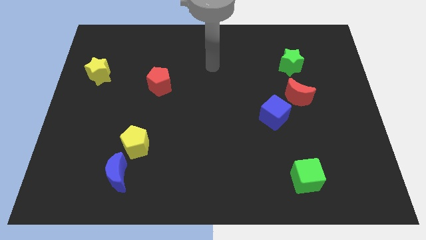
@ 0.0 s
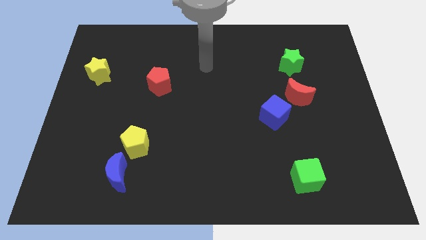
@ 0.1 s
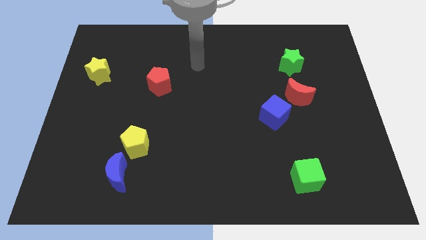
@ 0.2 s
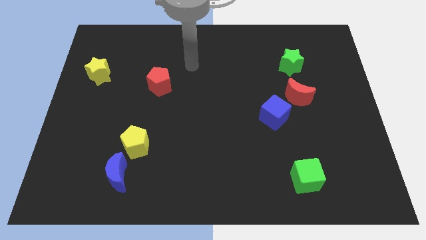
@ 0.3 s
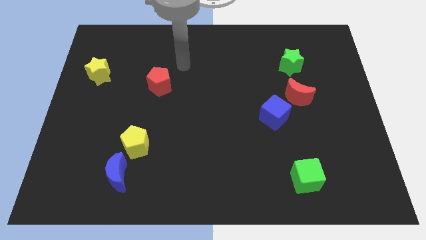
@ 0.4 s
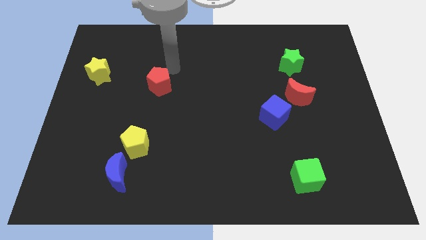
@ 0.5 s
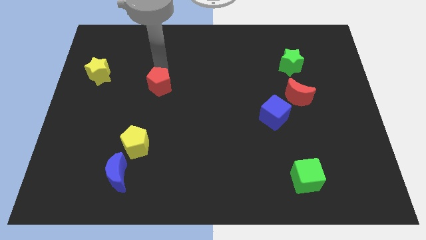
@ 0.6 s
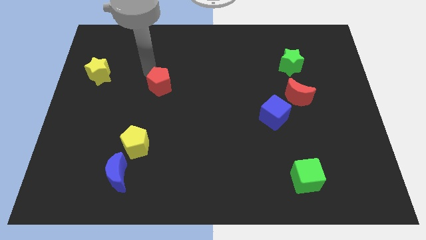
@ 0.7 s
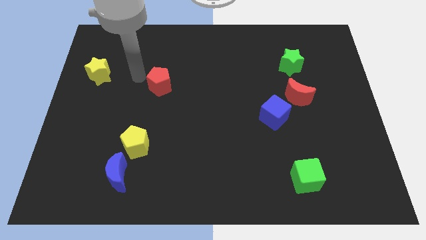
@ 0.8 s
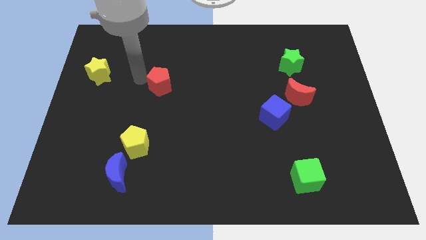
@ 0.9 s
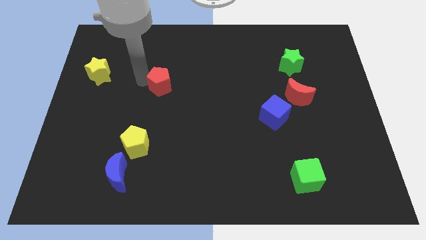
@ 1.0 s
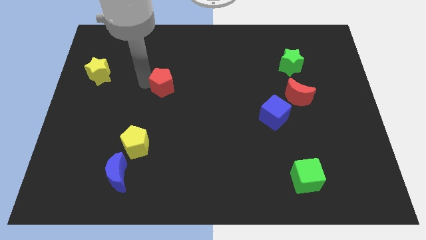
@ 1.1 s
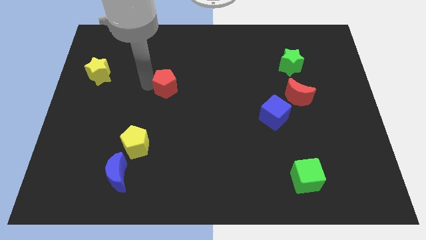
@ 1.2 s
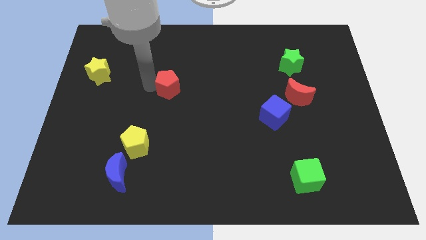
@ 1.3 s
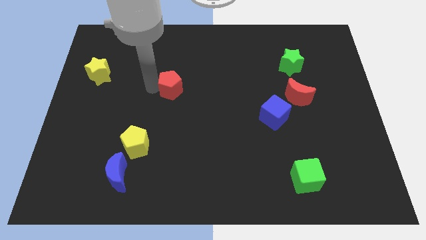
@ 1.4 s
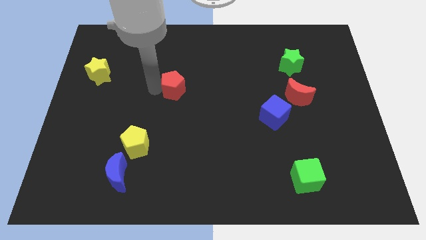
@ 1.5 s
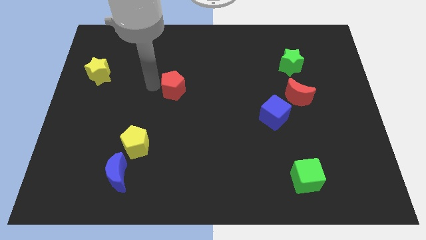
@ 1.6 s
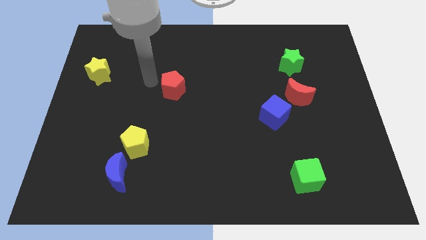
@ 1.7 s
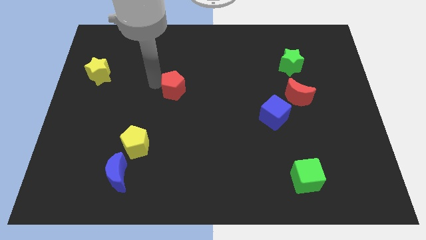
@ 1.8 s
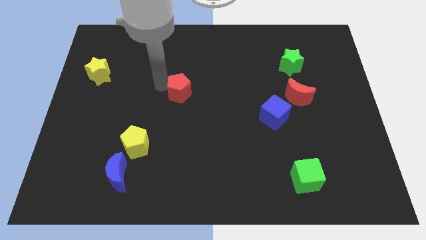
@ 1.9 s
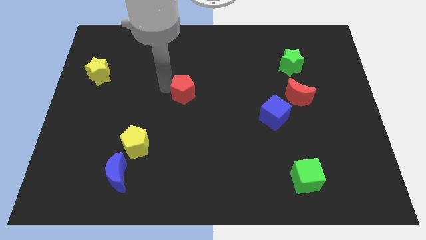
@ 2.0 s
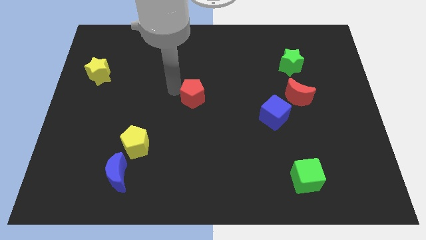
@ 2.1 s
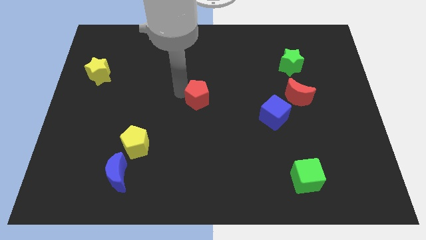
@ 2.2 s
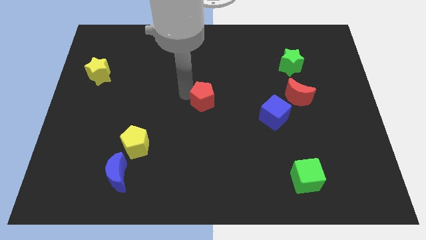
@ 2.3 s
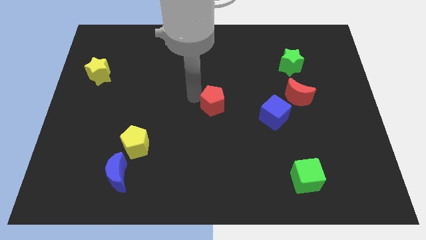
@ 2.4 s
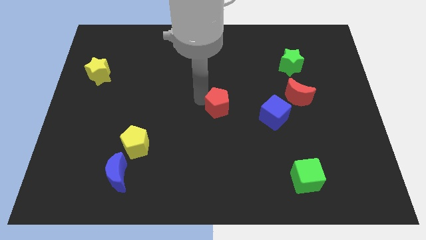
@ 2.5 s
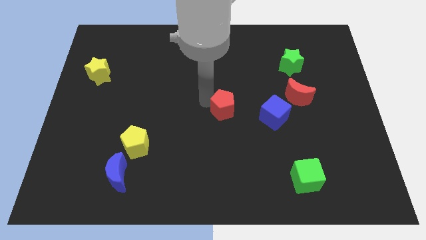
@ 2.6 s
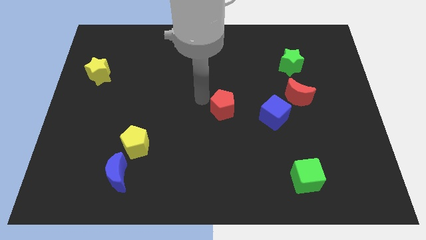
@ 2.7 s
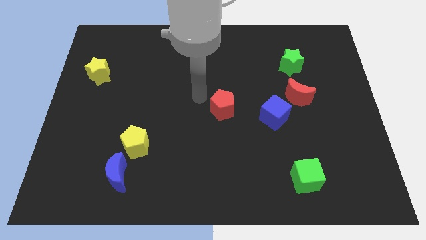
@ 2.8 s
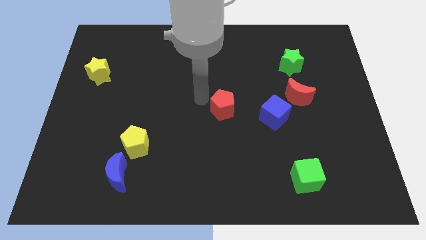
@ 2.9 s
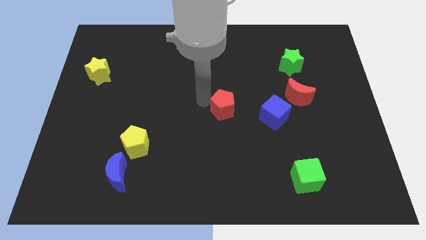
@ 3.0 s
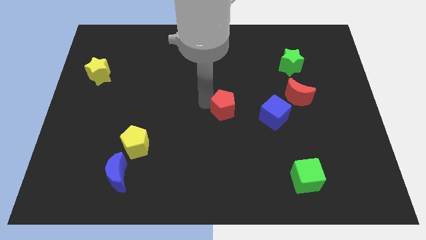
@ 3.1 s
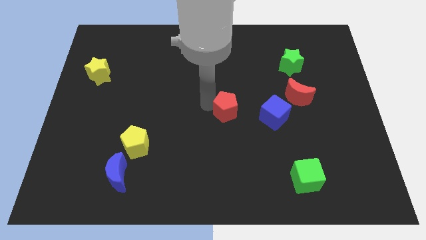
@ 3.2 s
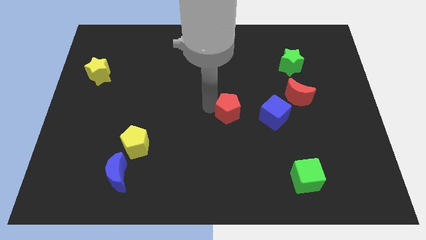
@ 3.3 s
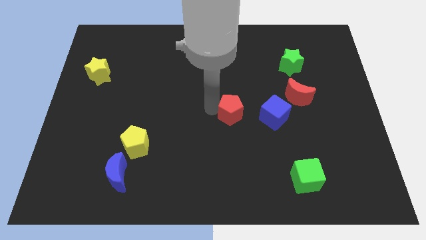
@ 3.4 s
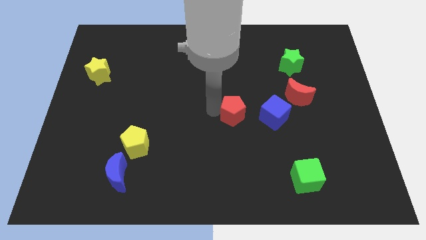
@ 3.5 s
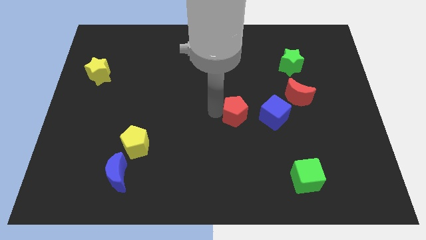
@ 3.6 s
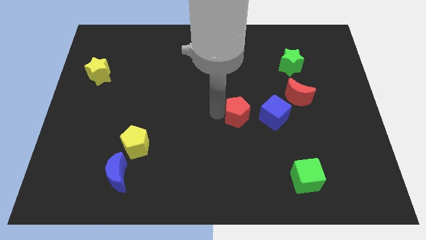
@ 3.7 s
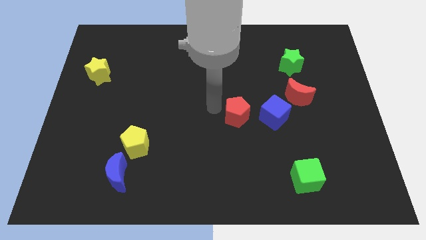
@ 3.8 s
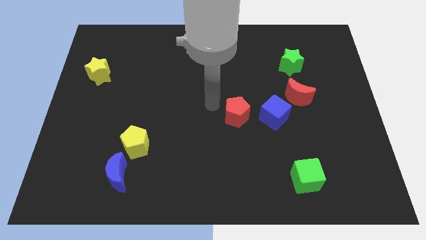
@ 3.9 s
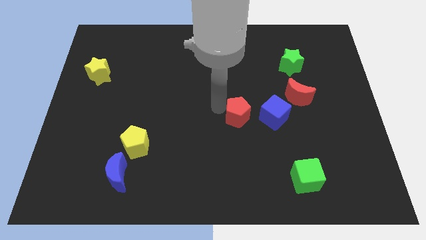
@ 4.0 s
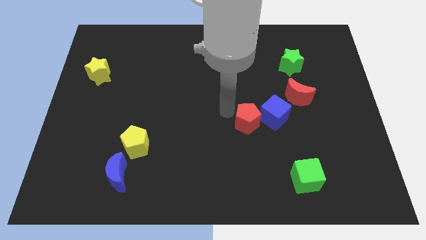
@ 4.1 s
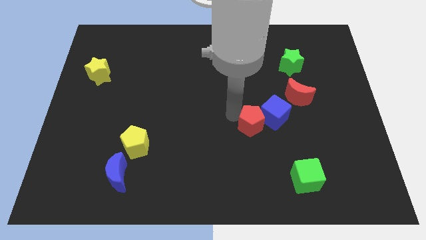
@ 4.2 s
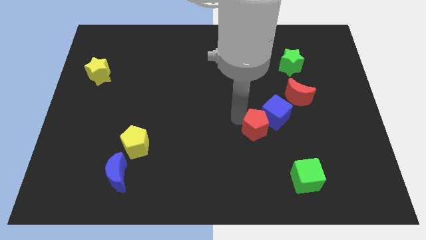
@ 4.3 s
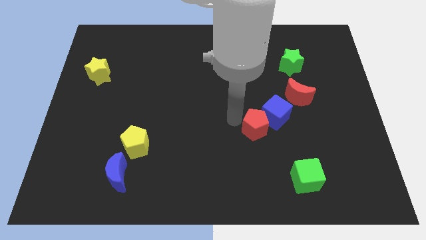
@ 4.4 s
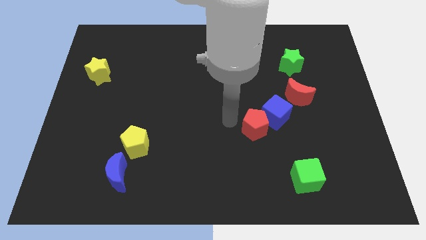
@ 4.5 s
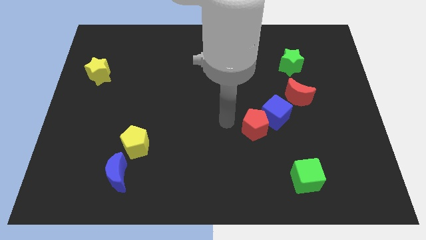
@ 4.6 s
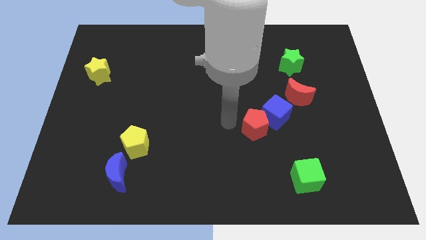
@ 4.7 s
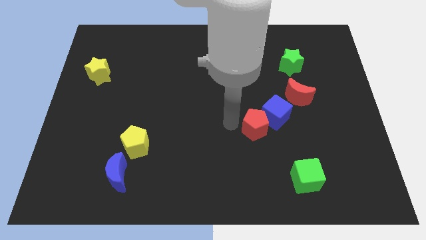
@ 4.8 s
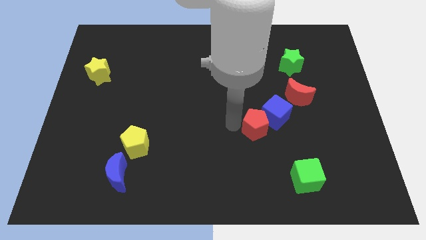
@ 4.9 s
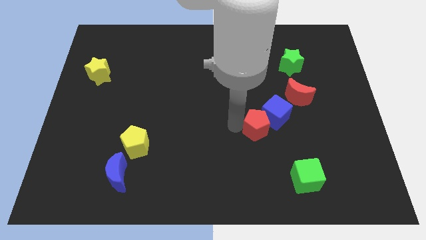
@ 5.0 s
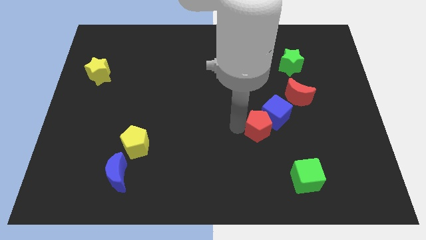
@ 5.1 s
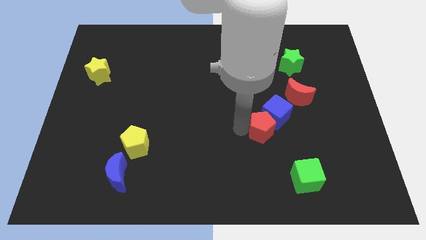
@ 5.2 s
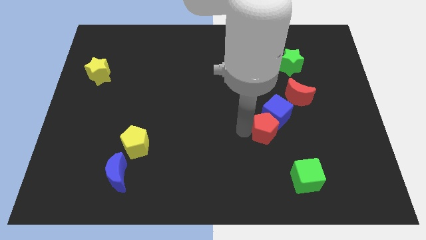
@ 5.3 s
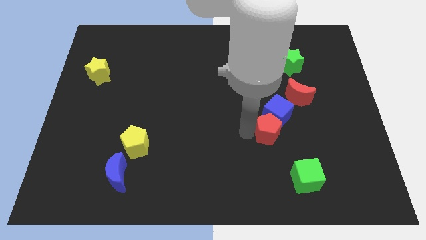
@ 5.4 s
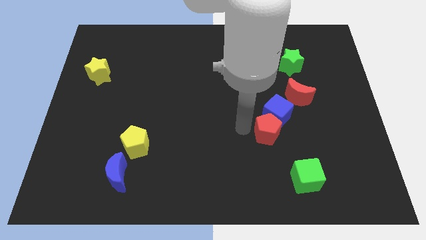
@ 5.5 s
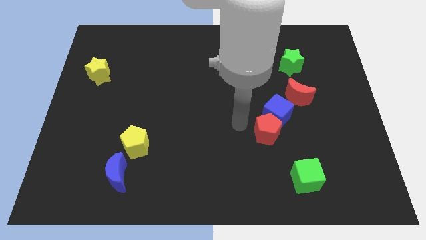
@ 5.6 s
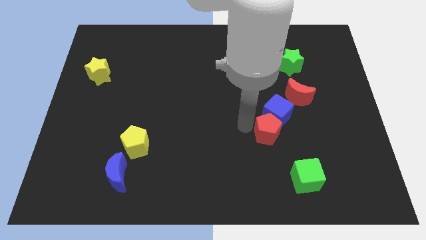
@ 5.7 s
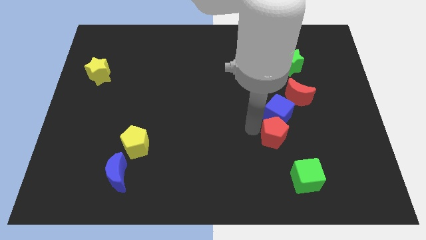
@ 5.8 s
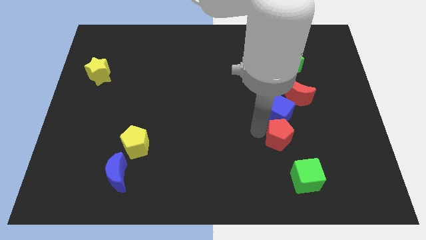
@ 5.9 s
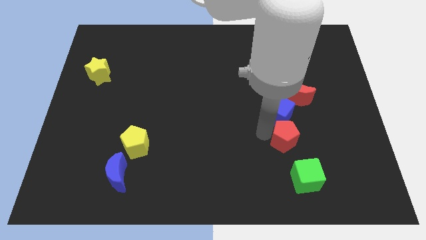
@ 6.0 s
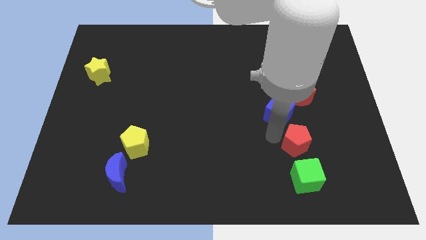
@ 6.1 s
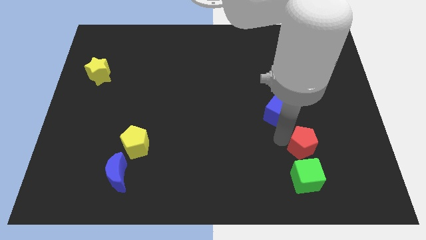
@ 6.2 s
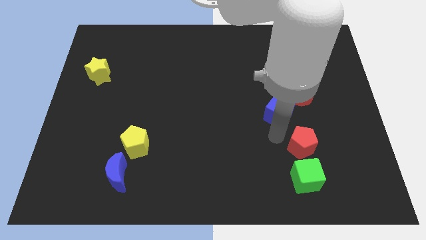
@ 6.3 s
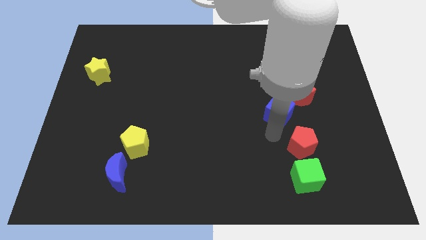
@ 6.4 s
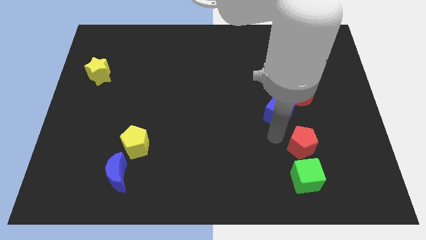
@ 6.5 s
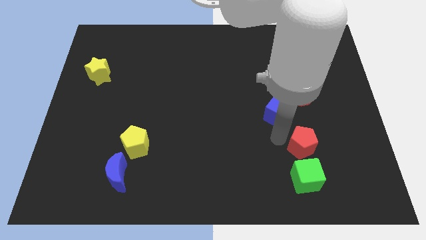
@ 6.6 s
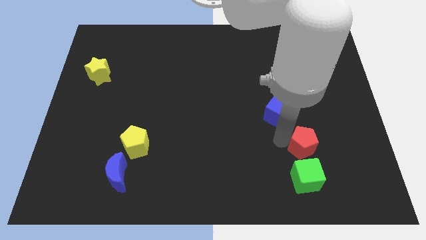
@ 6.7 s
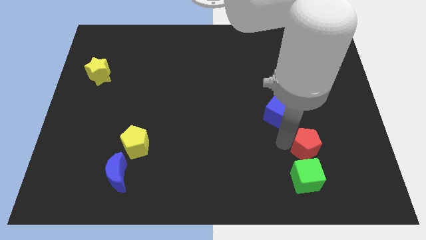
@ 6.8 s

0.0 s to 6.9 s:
push the red pentagon to the top right side of the green cube
